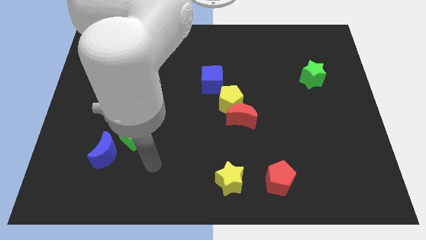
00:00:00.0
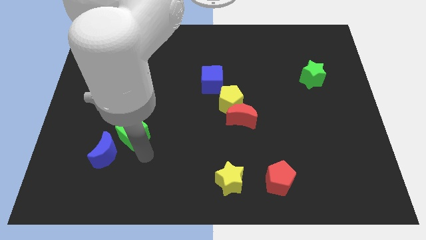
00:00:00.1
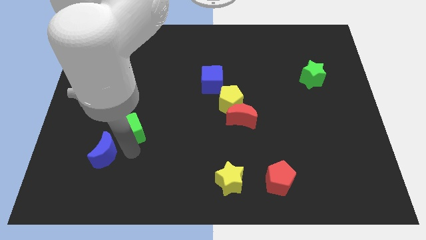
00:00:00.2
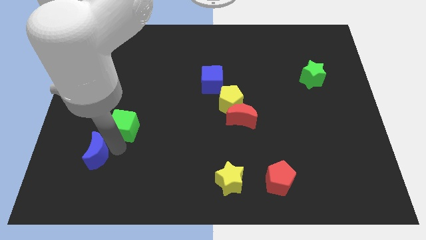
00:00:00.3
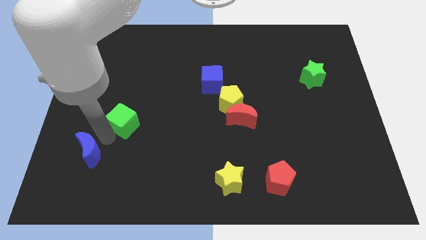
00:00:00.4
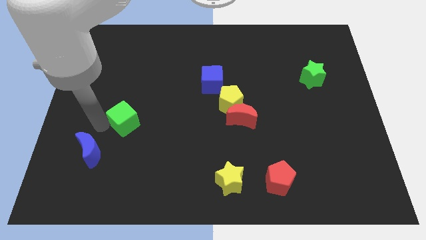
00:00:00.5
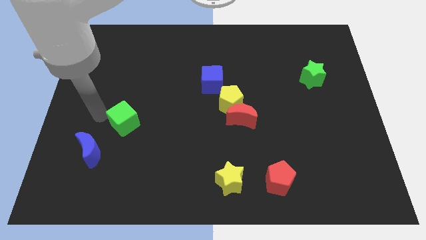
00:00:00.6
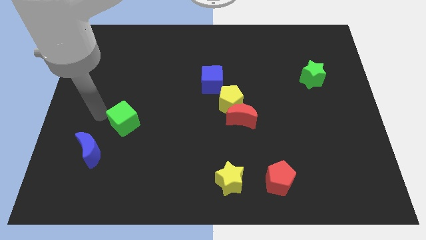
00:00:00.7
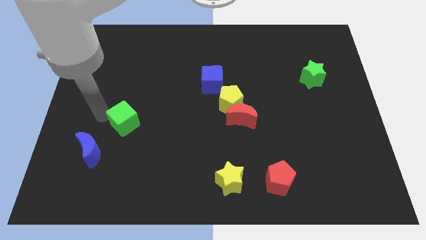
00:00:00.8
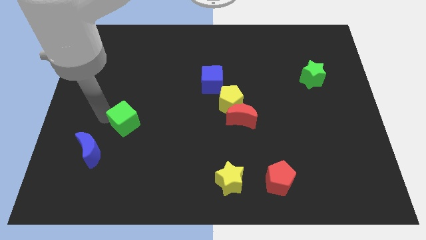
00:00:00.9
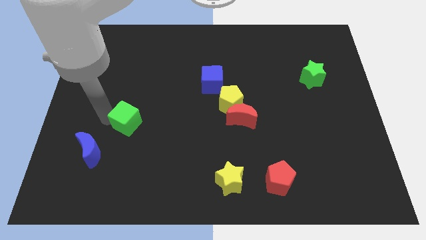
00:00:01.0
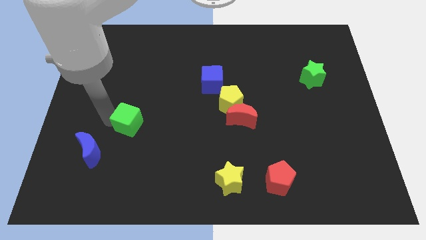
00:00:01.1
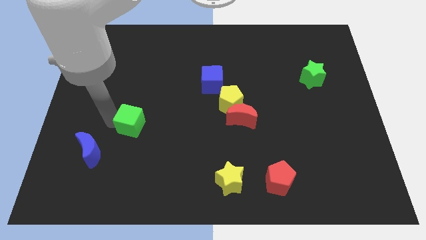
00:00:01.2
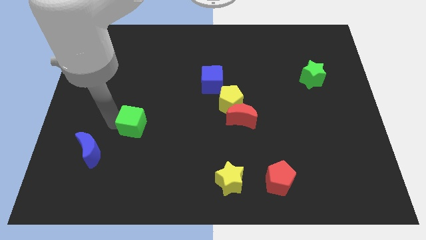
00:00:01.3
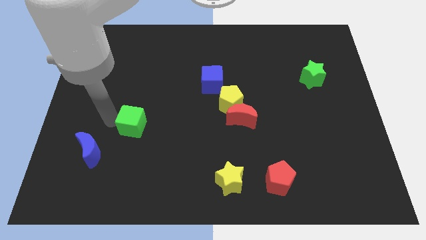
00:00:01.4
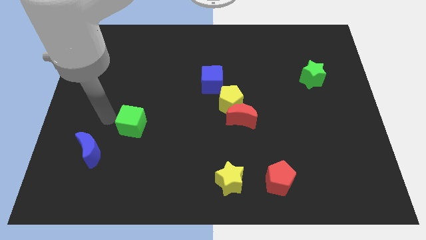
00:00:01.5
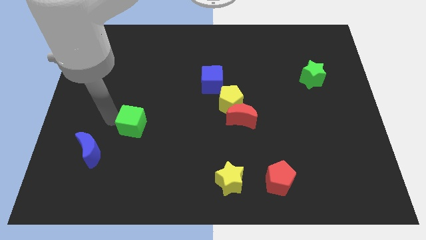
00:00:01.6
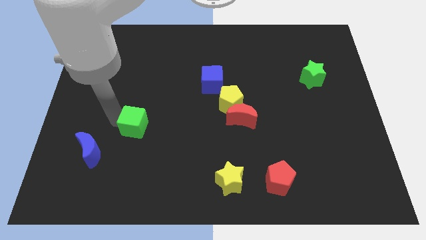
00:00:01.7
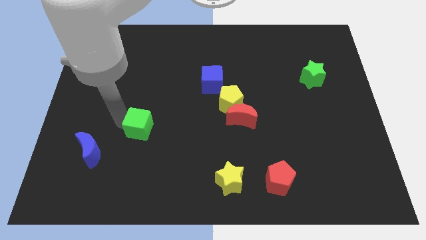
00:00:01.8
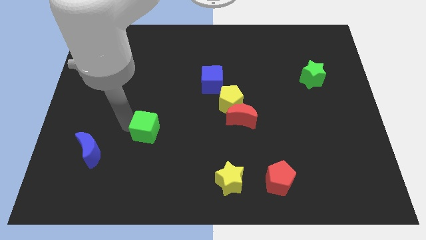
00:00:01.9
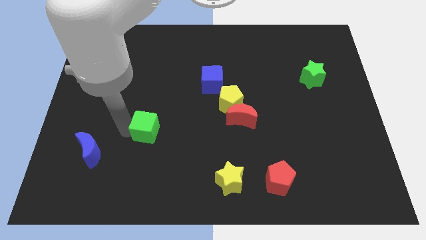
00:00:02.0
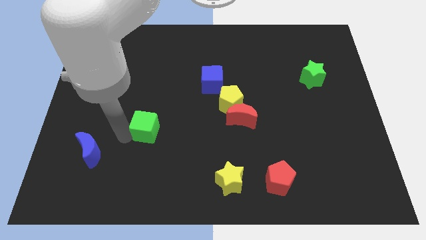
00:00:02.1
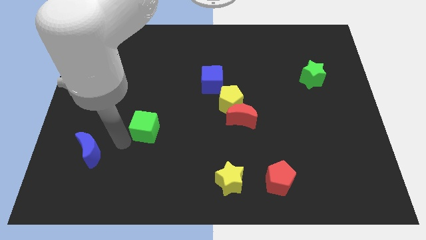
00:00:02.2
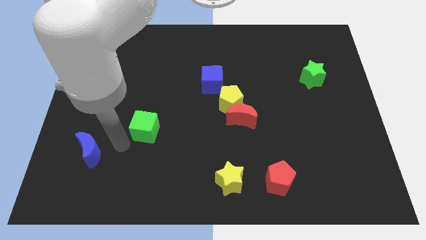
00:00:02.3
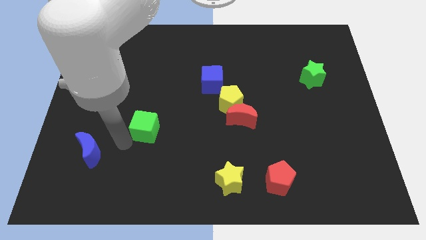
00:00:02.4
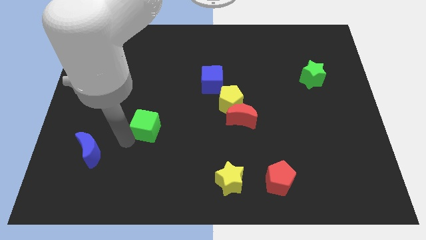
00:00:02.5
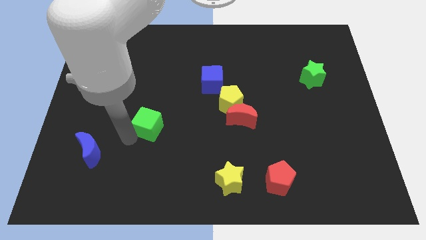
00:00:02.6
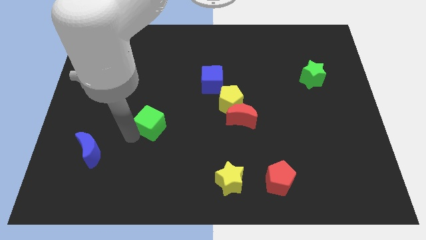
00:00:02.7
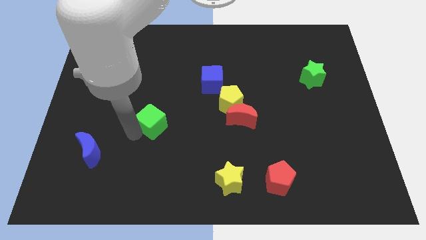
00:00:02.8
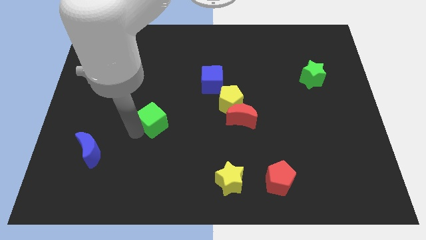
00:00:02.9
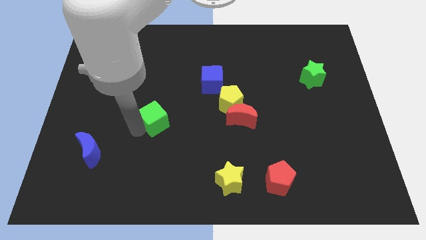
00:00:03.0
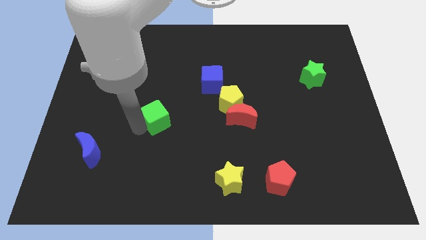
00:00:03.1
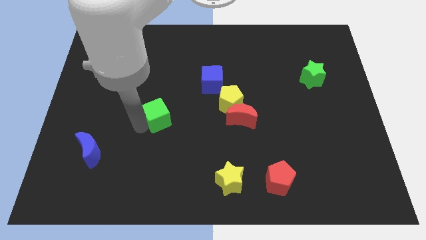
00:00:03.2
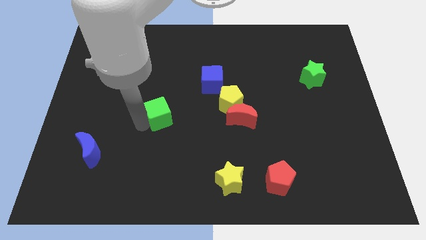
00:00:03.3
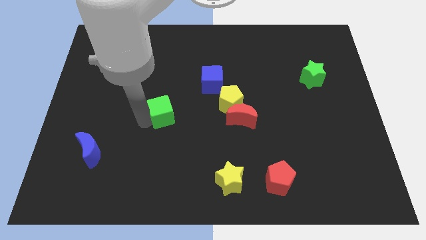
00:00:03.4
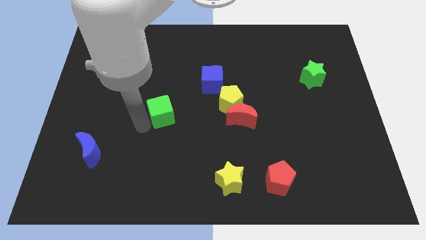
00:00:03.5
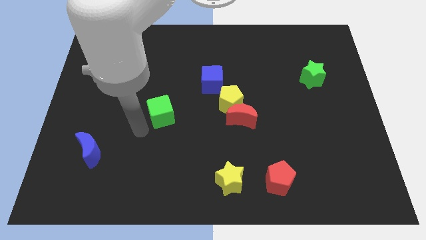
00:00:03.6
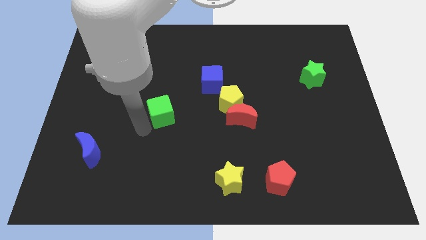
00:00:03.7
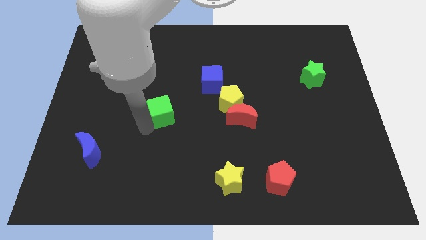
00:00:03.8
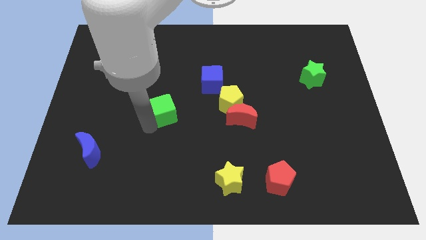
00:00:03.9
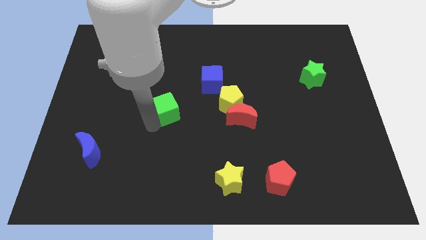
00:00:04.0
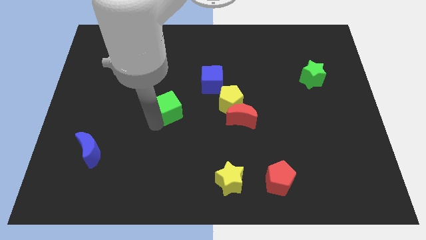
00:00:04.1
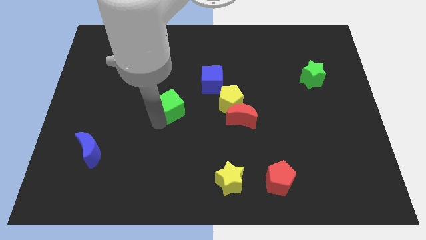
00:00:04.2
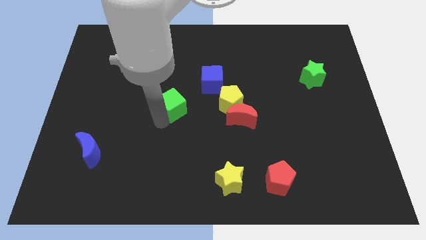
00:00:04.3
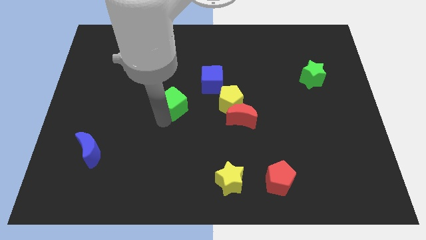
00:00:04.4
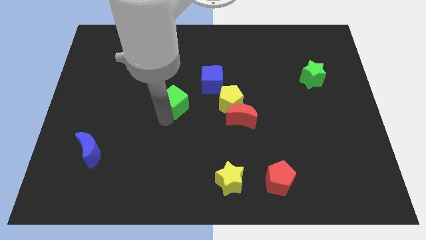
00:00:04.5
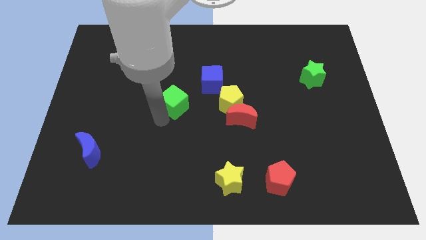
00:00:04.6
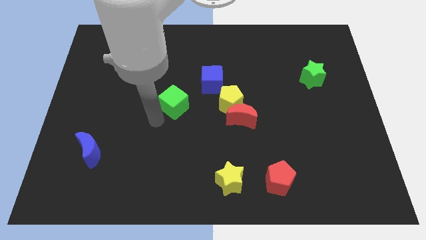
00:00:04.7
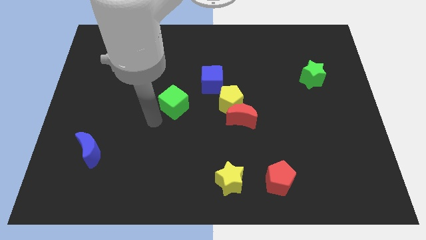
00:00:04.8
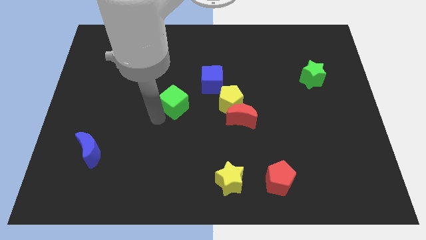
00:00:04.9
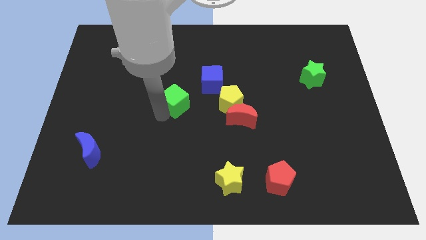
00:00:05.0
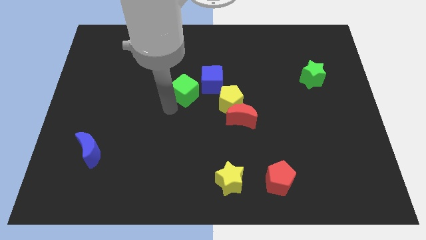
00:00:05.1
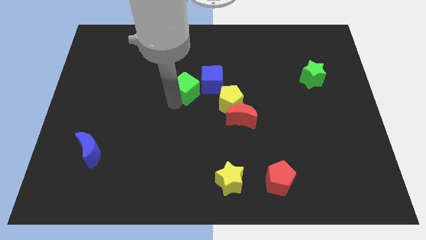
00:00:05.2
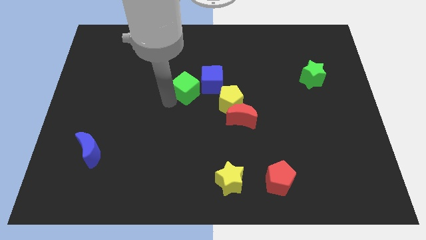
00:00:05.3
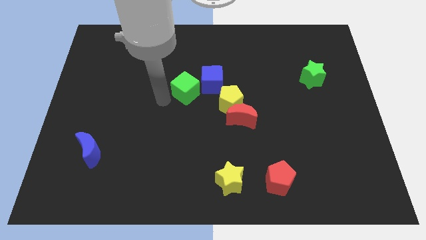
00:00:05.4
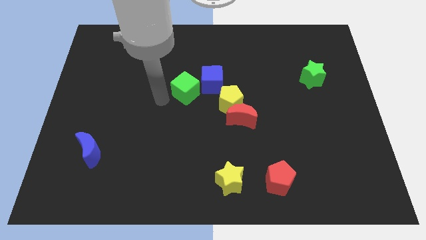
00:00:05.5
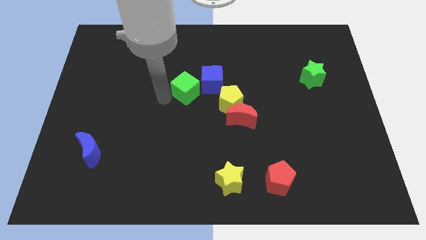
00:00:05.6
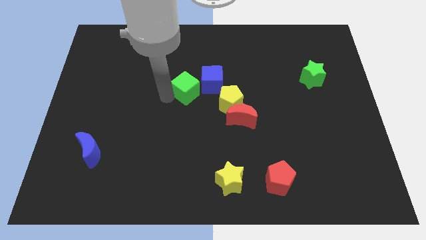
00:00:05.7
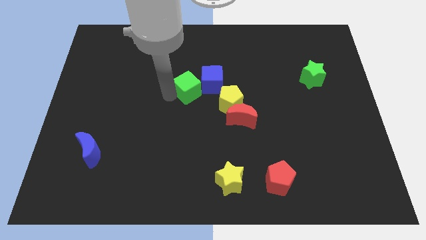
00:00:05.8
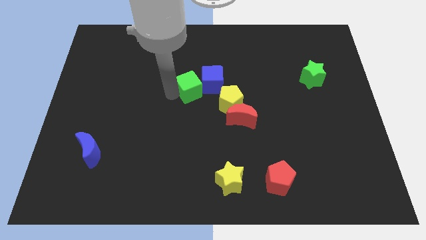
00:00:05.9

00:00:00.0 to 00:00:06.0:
push the green cube towards the blue cube

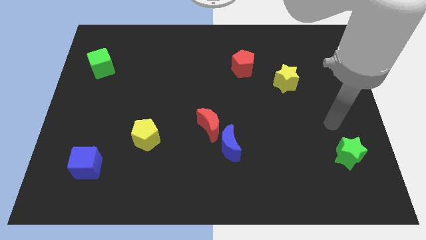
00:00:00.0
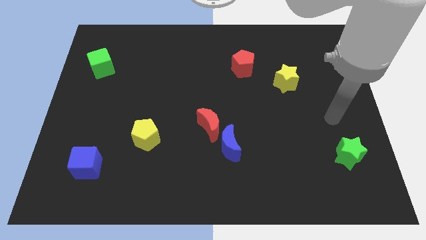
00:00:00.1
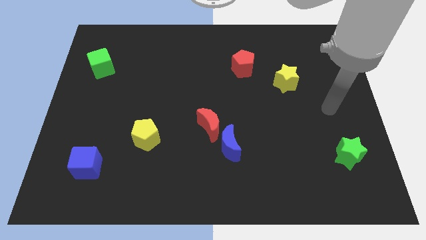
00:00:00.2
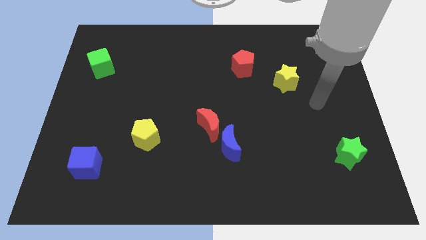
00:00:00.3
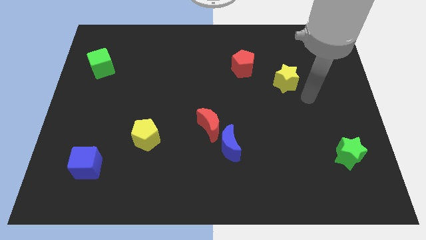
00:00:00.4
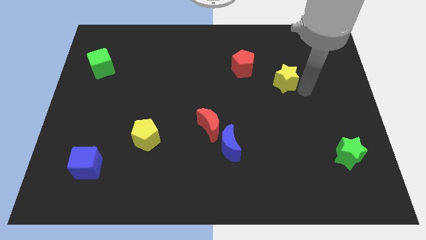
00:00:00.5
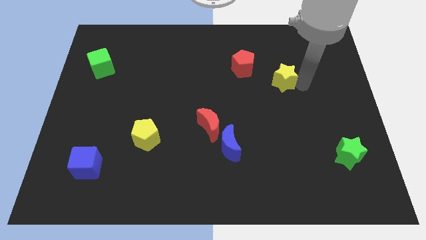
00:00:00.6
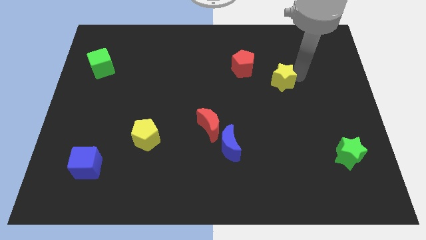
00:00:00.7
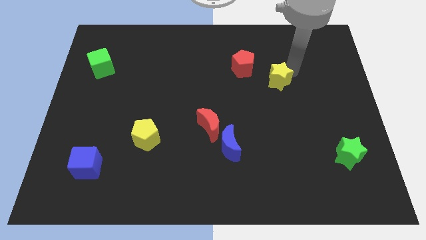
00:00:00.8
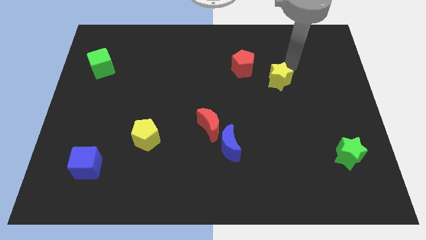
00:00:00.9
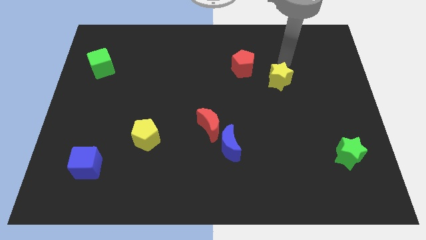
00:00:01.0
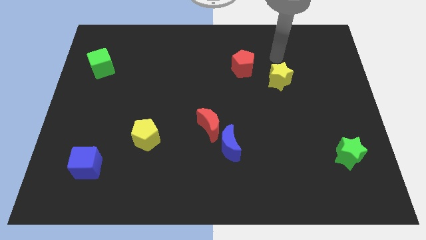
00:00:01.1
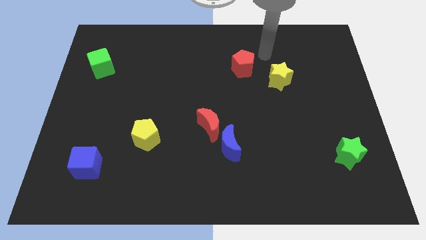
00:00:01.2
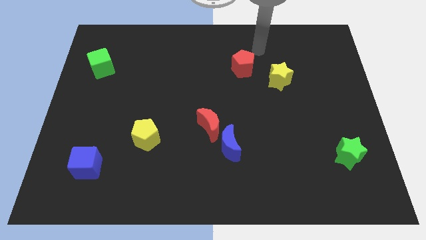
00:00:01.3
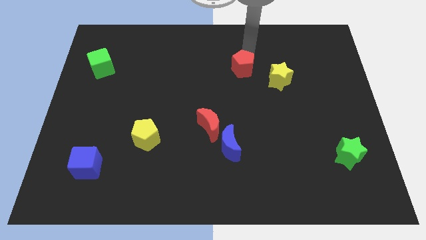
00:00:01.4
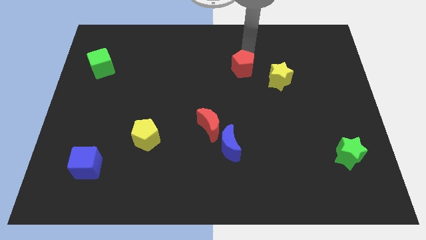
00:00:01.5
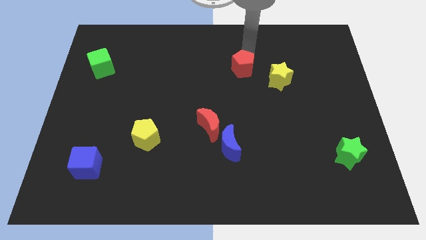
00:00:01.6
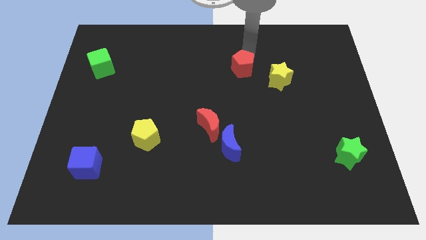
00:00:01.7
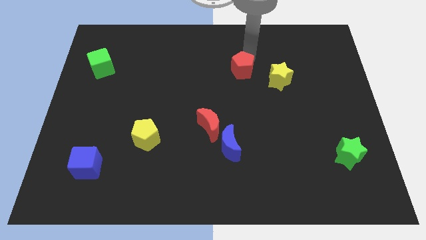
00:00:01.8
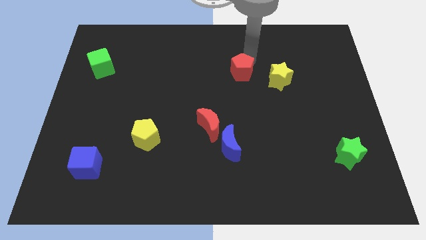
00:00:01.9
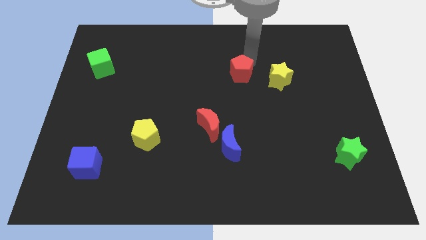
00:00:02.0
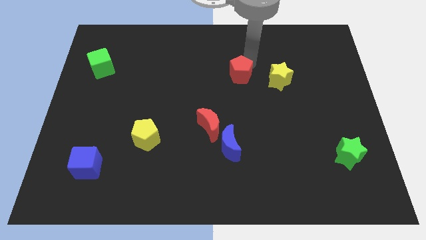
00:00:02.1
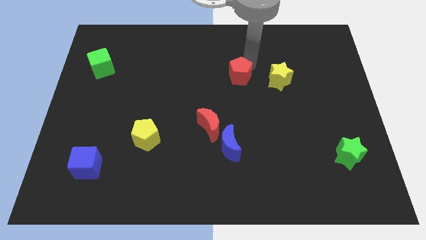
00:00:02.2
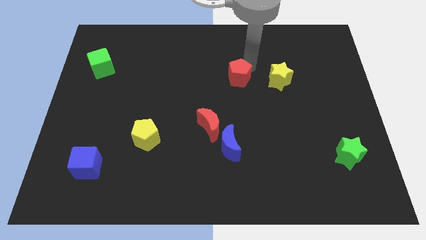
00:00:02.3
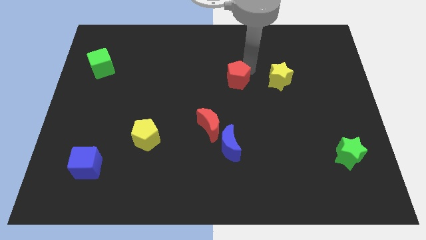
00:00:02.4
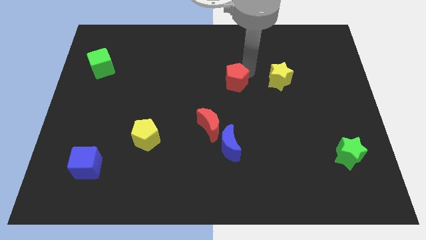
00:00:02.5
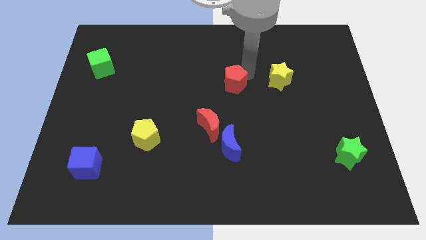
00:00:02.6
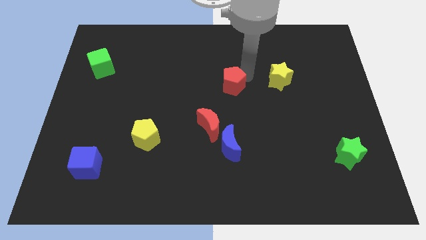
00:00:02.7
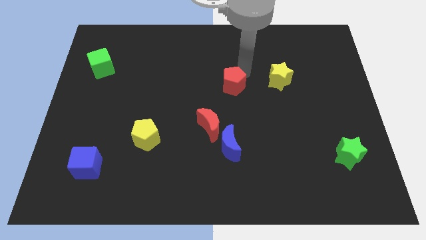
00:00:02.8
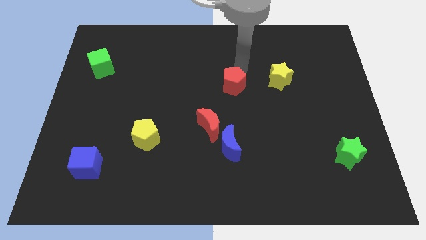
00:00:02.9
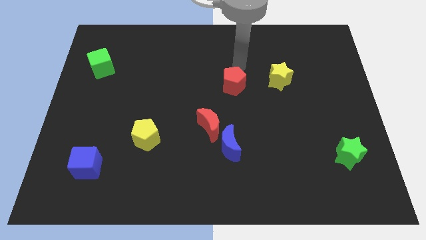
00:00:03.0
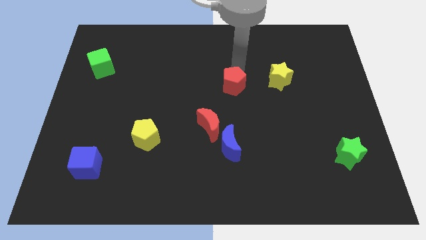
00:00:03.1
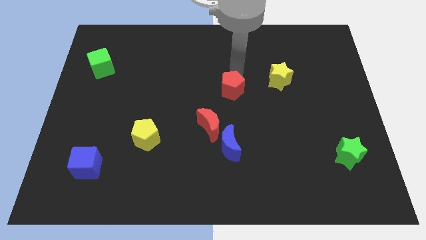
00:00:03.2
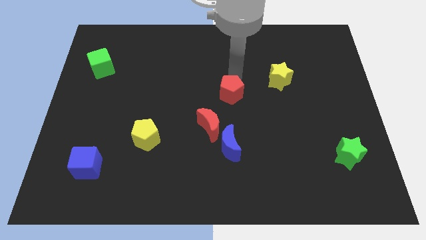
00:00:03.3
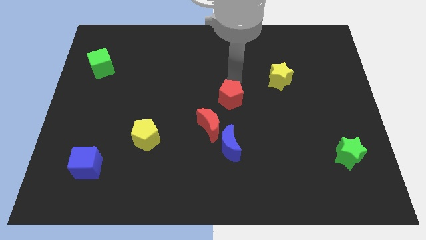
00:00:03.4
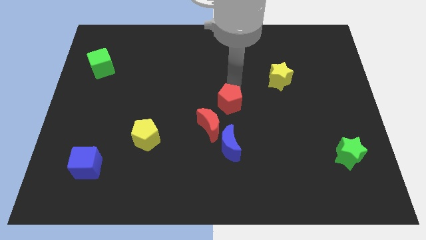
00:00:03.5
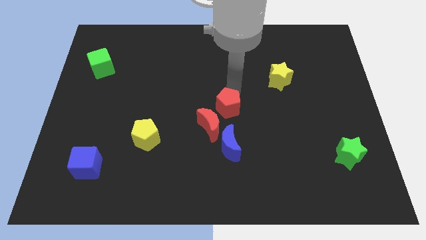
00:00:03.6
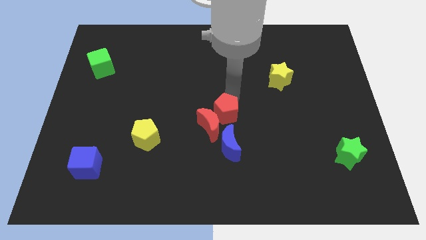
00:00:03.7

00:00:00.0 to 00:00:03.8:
push the red pentagon next to the red moon
